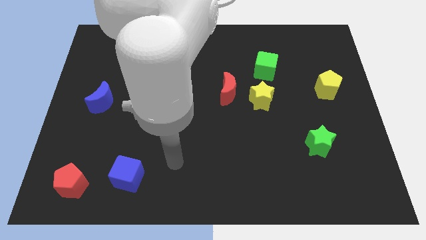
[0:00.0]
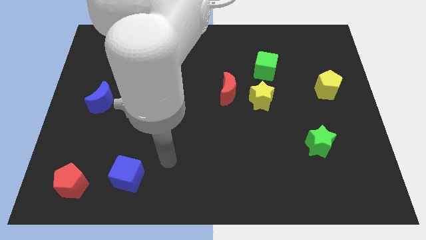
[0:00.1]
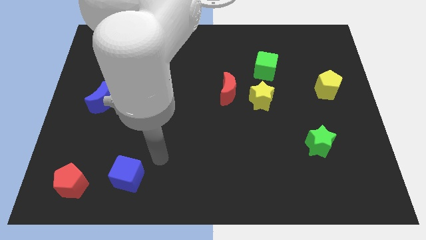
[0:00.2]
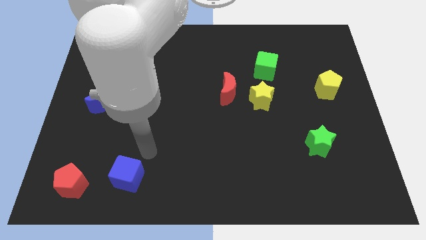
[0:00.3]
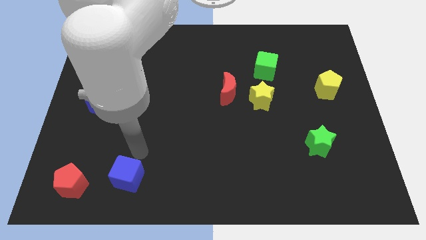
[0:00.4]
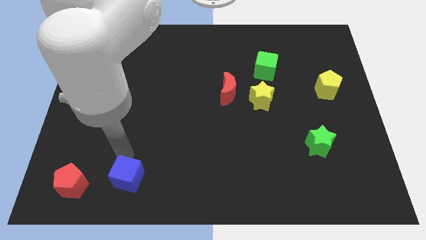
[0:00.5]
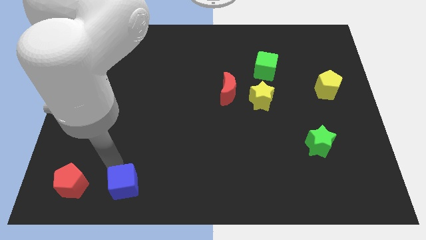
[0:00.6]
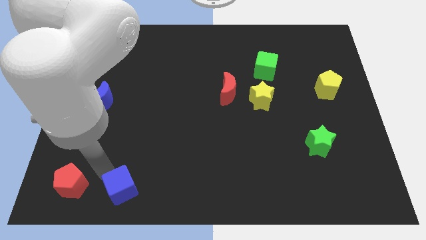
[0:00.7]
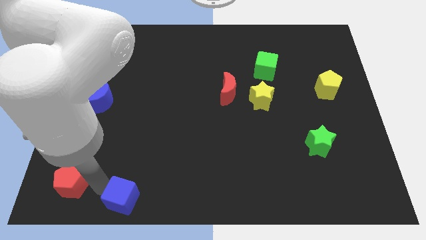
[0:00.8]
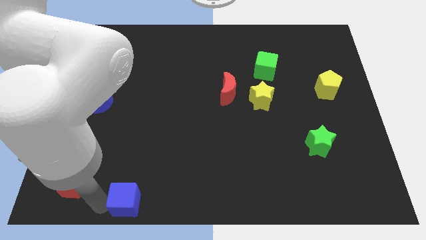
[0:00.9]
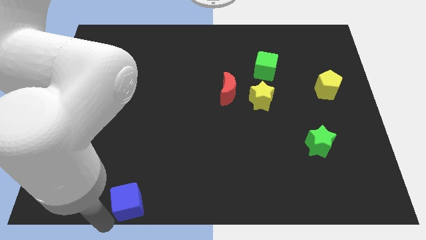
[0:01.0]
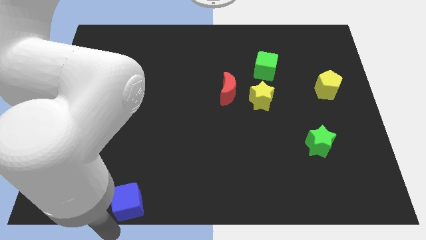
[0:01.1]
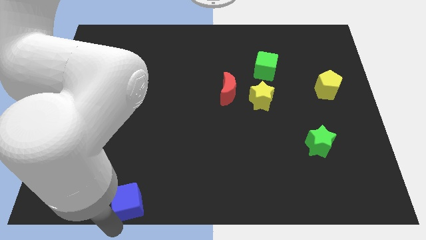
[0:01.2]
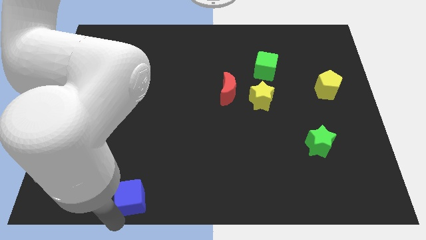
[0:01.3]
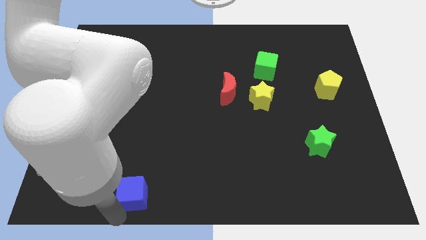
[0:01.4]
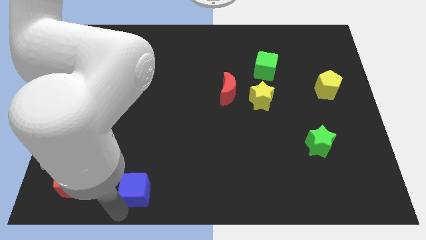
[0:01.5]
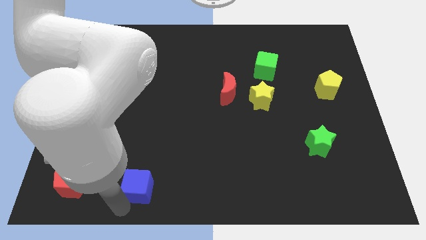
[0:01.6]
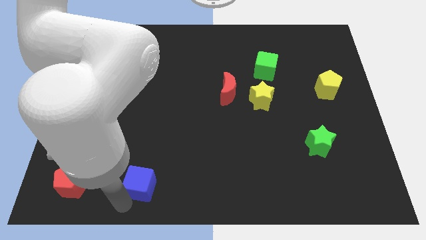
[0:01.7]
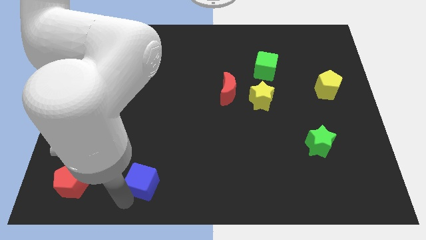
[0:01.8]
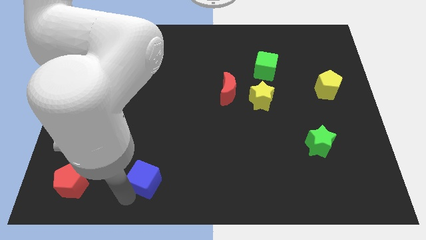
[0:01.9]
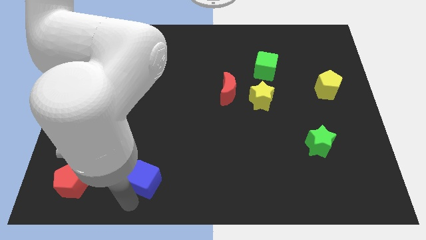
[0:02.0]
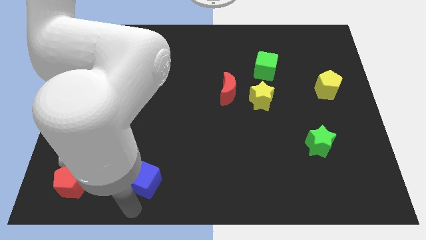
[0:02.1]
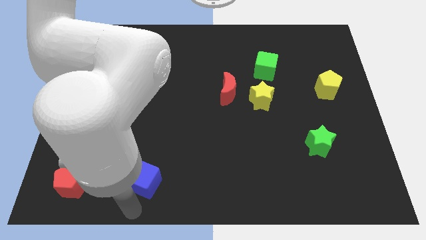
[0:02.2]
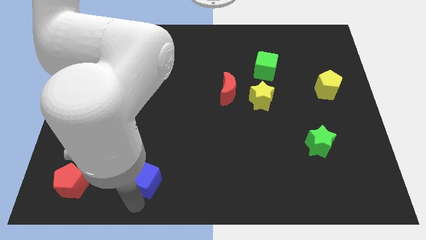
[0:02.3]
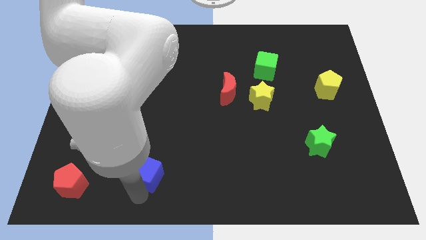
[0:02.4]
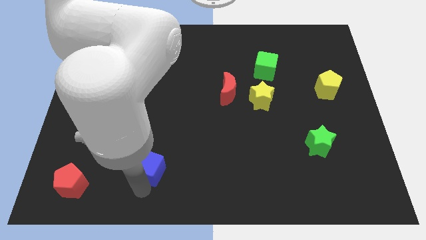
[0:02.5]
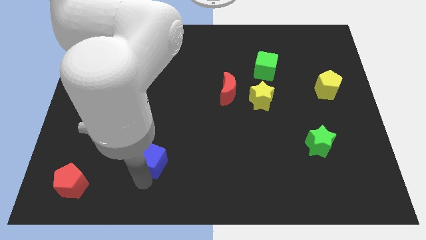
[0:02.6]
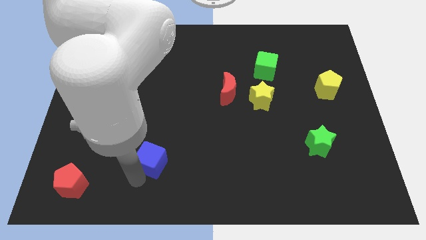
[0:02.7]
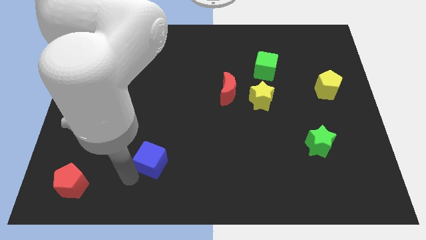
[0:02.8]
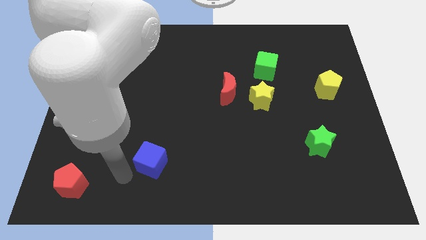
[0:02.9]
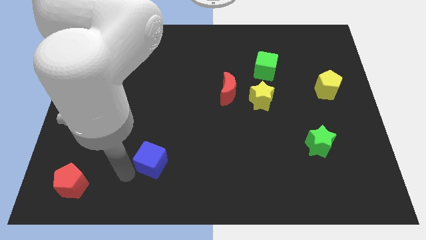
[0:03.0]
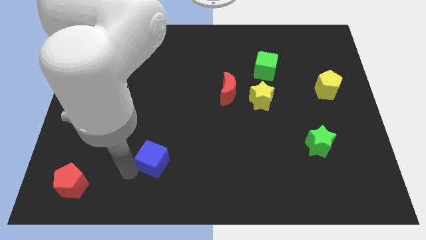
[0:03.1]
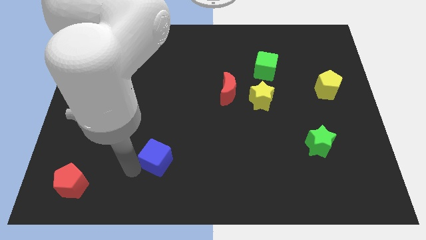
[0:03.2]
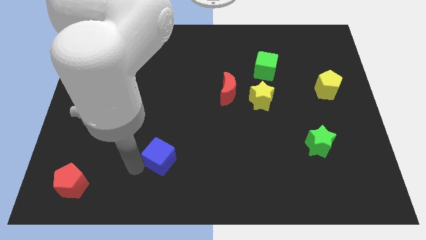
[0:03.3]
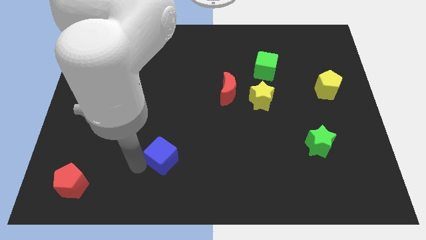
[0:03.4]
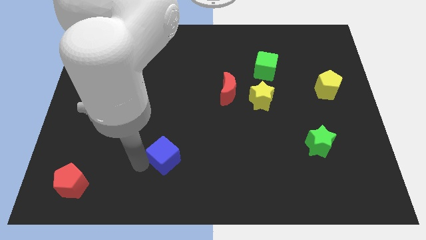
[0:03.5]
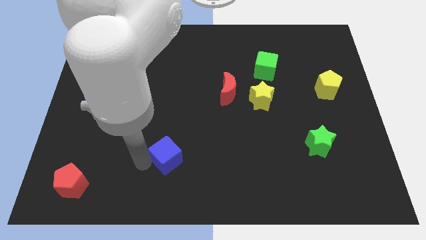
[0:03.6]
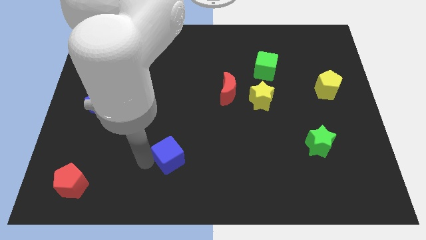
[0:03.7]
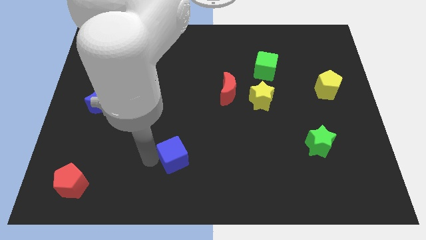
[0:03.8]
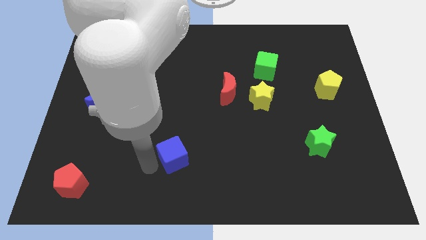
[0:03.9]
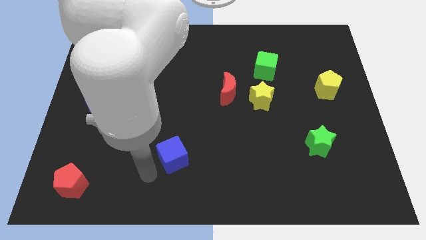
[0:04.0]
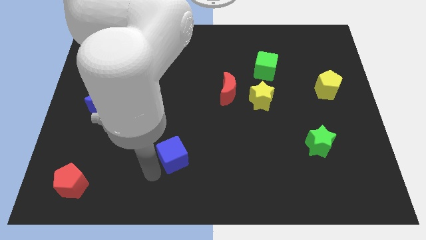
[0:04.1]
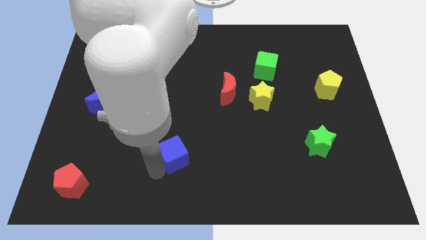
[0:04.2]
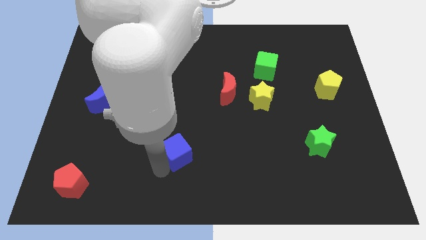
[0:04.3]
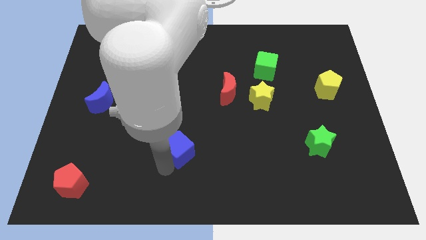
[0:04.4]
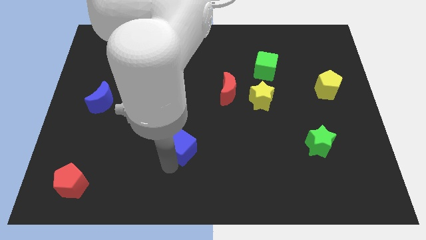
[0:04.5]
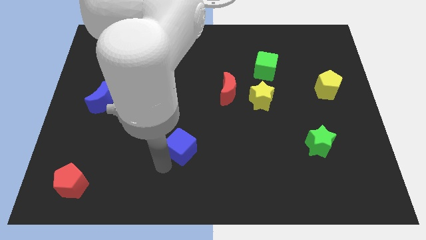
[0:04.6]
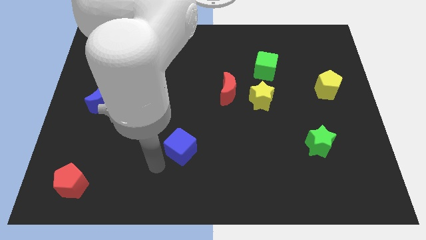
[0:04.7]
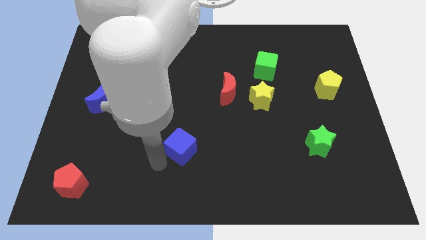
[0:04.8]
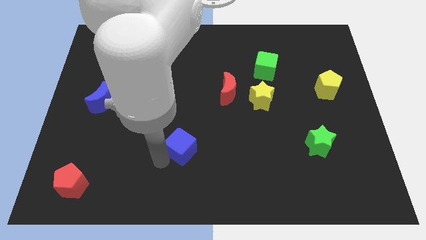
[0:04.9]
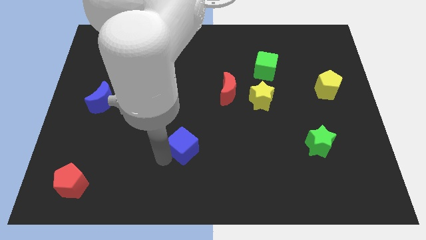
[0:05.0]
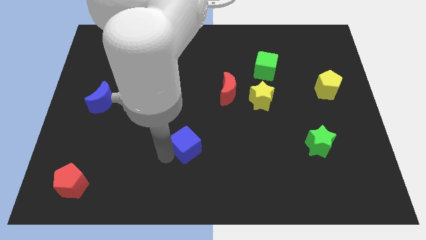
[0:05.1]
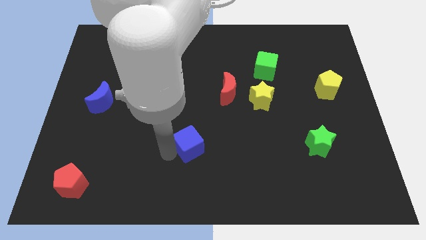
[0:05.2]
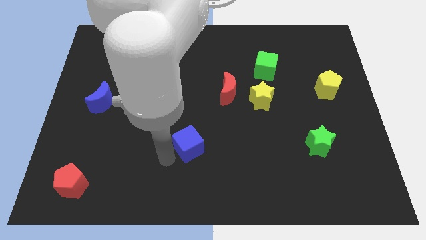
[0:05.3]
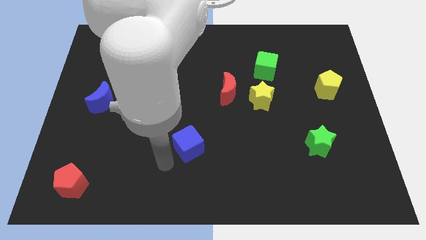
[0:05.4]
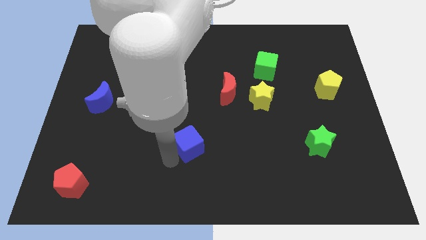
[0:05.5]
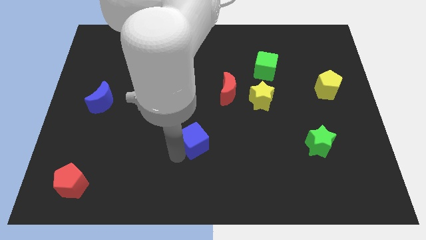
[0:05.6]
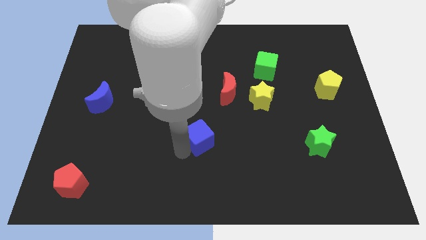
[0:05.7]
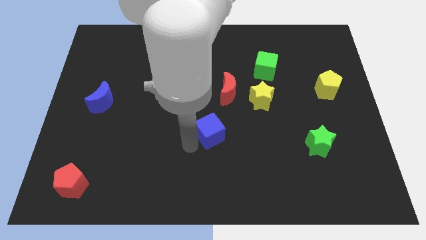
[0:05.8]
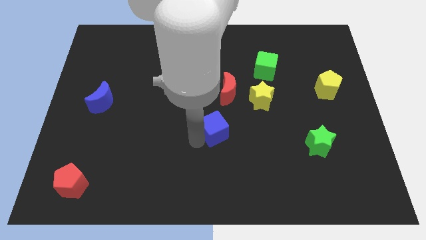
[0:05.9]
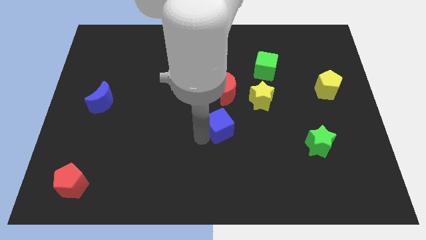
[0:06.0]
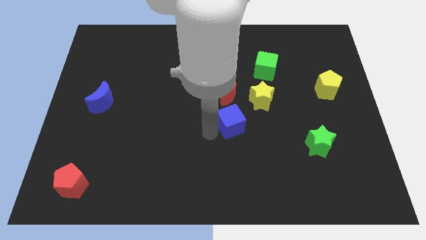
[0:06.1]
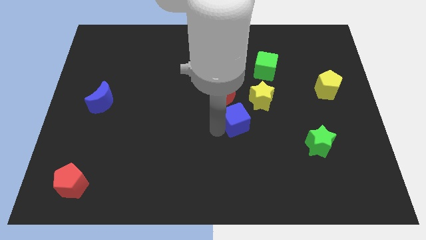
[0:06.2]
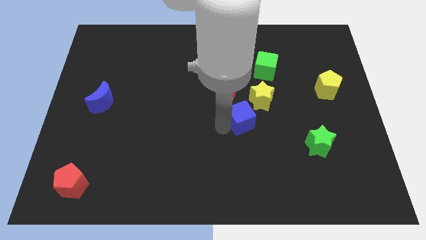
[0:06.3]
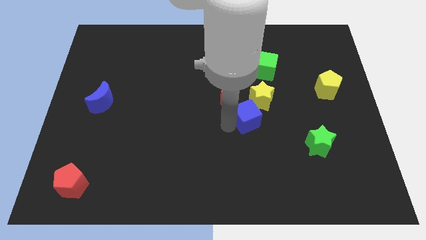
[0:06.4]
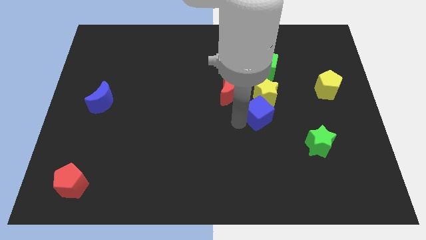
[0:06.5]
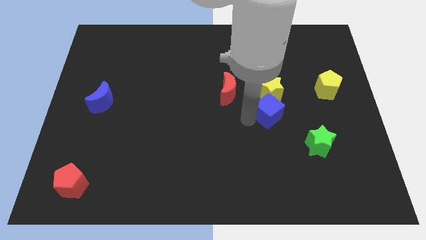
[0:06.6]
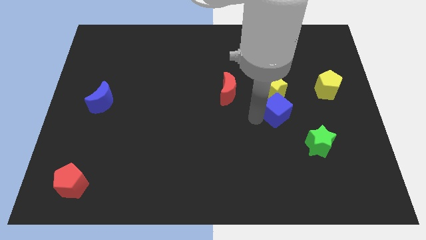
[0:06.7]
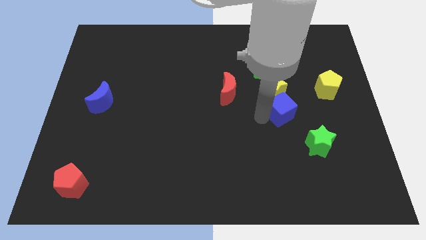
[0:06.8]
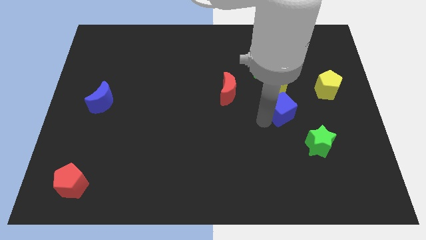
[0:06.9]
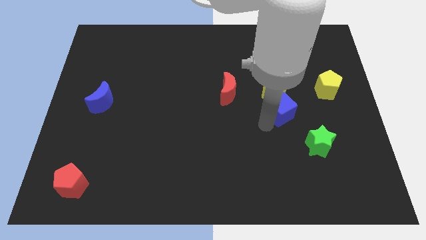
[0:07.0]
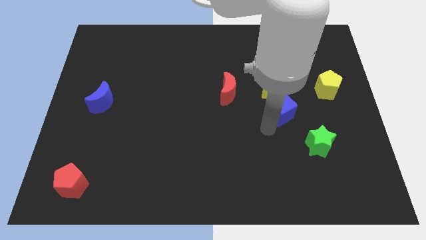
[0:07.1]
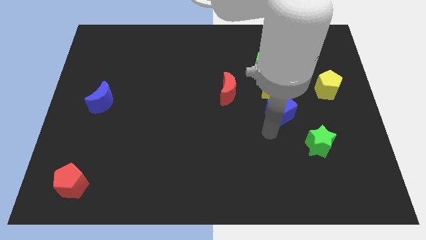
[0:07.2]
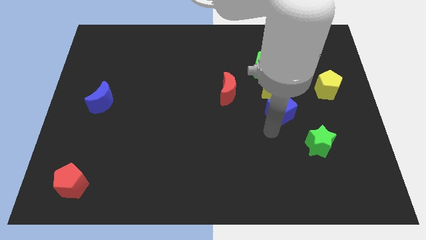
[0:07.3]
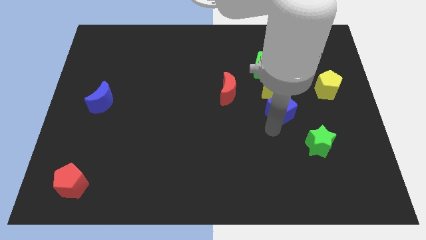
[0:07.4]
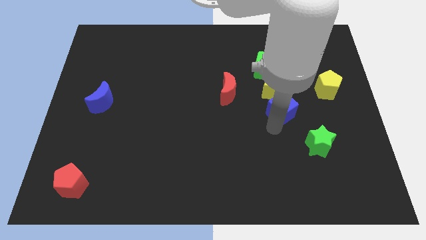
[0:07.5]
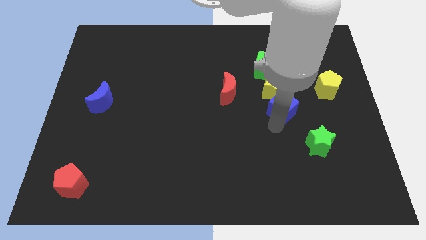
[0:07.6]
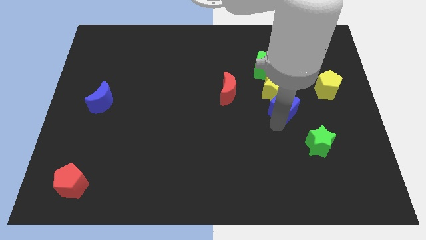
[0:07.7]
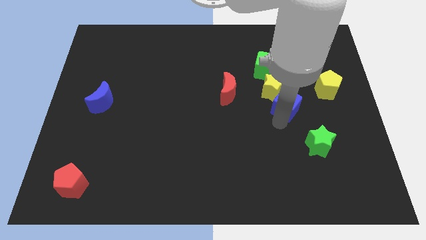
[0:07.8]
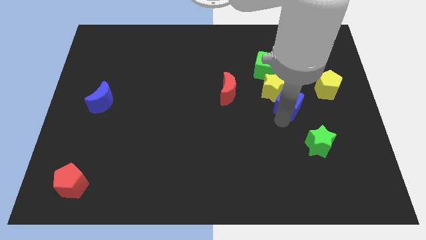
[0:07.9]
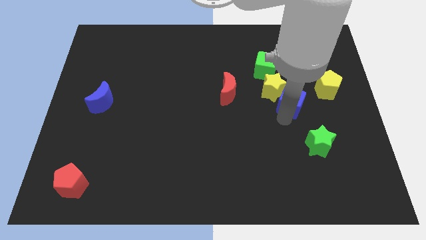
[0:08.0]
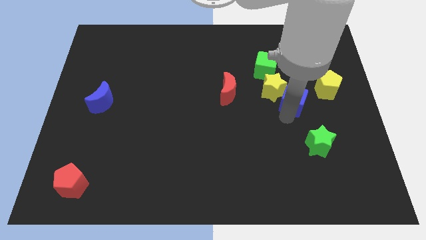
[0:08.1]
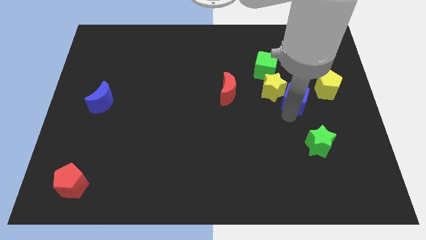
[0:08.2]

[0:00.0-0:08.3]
move the blue cube to the bottom right of the green cube
